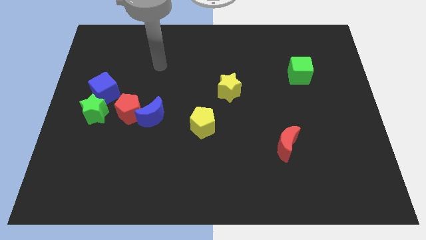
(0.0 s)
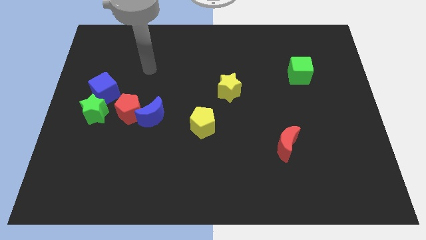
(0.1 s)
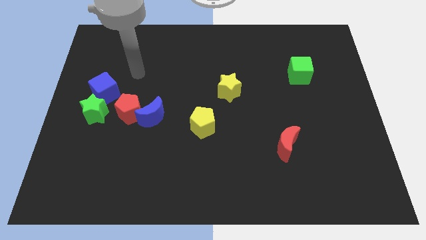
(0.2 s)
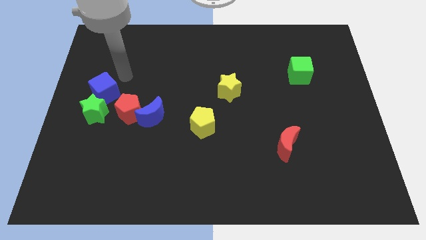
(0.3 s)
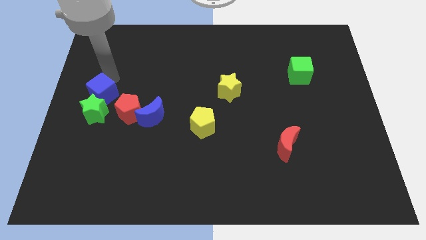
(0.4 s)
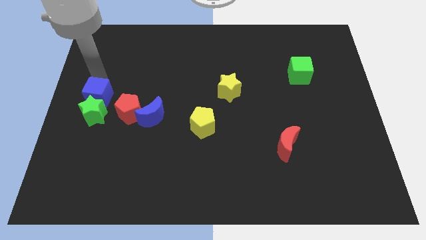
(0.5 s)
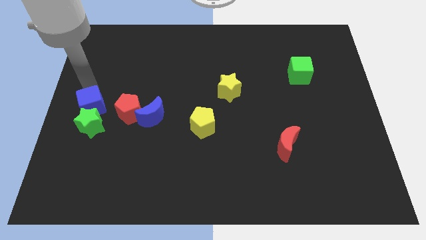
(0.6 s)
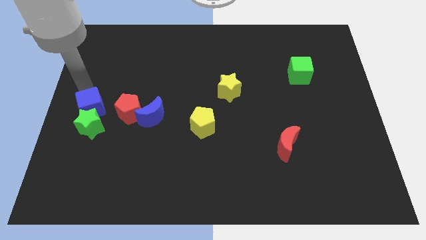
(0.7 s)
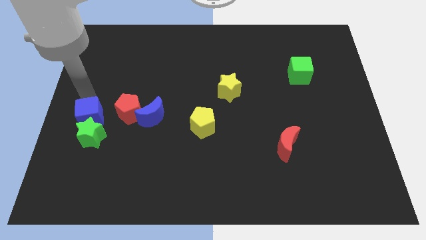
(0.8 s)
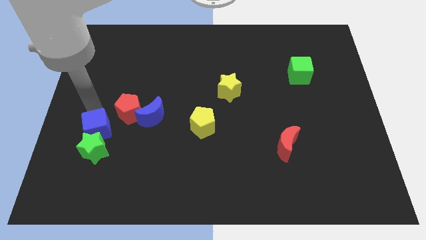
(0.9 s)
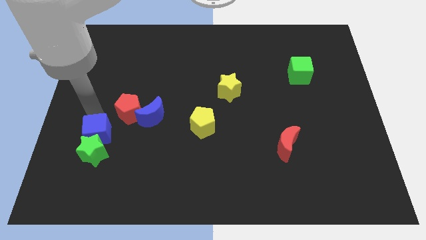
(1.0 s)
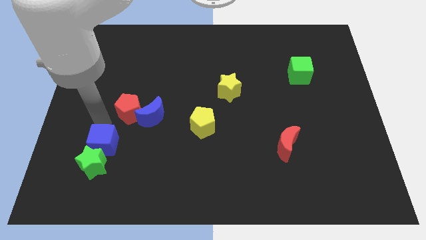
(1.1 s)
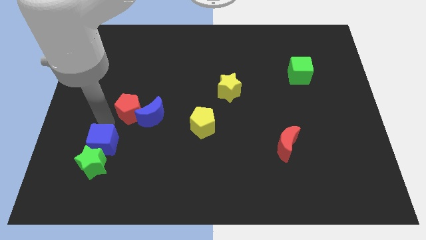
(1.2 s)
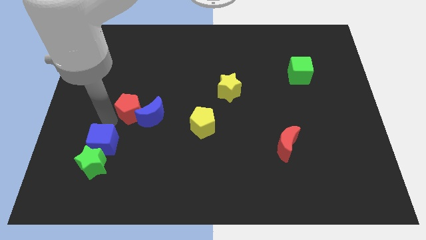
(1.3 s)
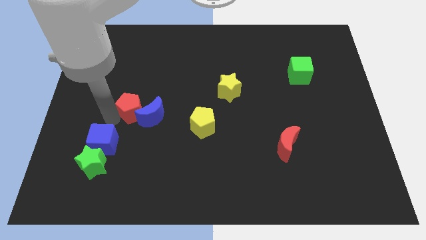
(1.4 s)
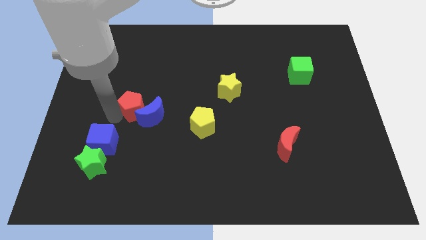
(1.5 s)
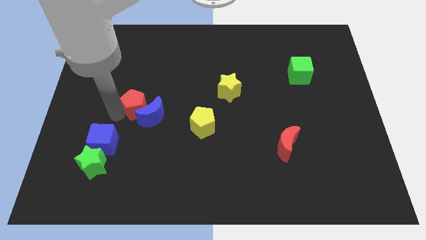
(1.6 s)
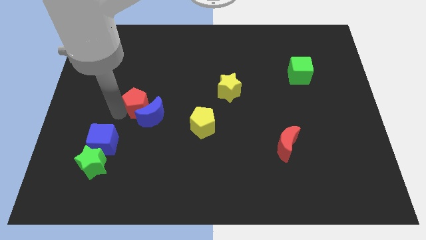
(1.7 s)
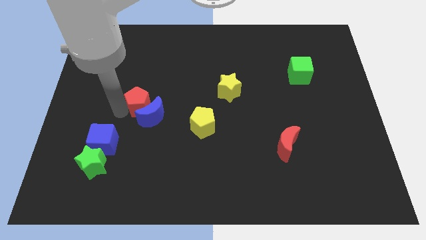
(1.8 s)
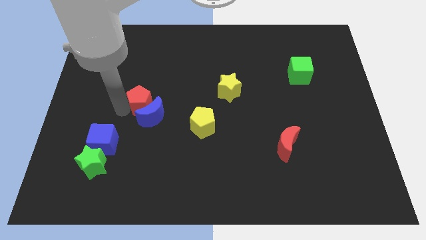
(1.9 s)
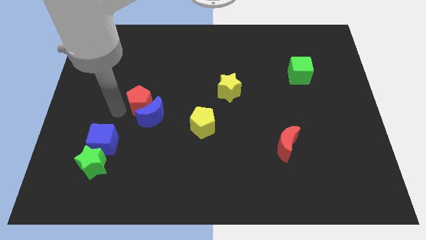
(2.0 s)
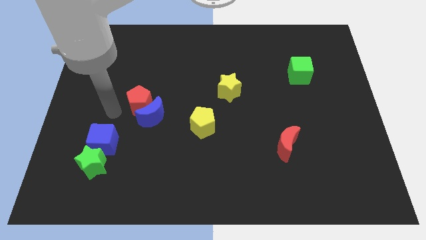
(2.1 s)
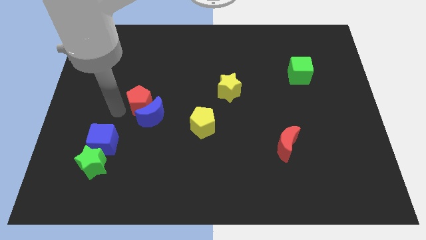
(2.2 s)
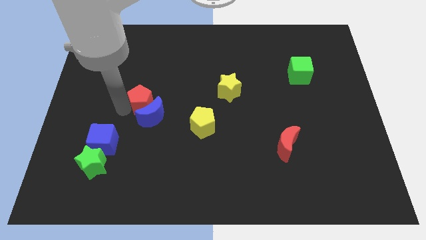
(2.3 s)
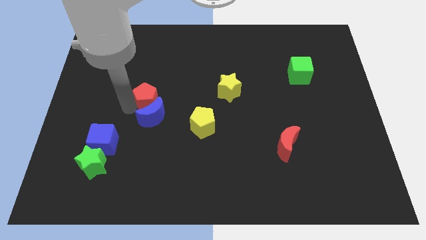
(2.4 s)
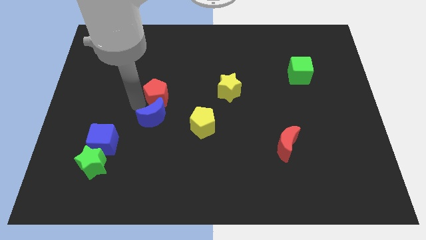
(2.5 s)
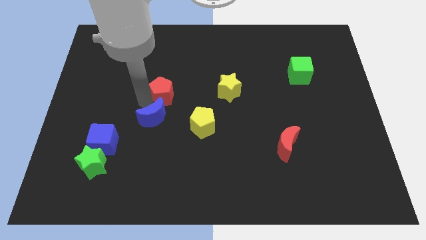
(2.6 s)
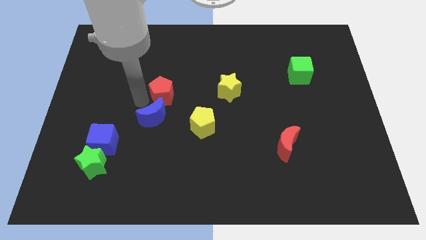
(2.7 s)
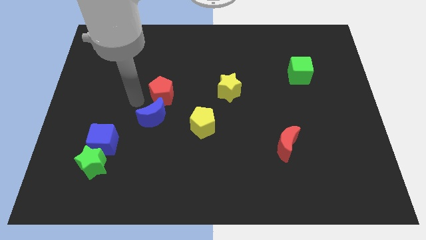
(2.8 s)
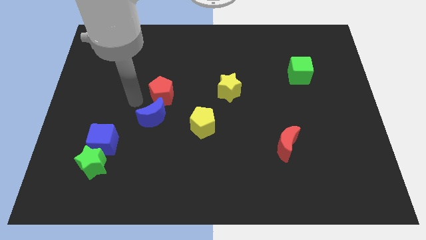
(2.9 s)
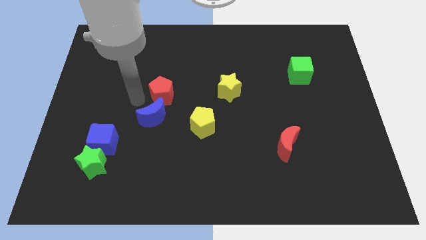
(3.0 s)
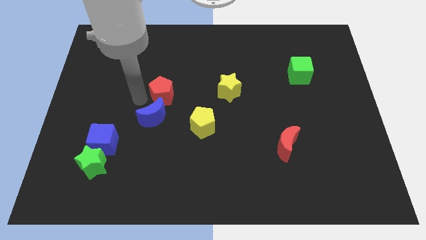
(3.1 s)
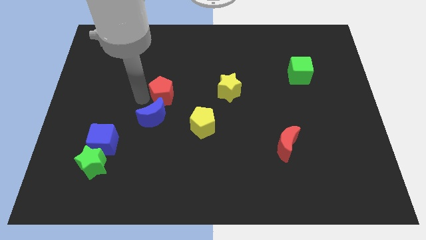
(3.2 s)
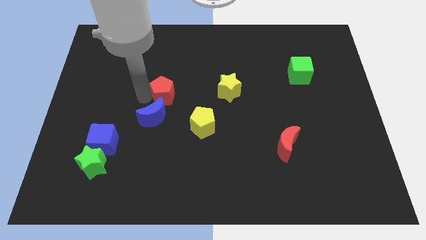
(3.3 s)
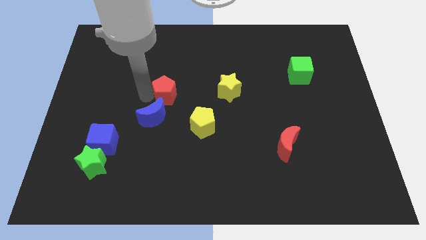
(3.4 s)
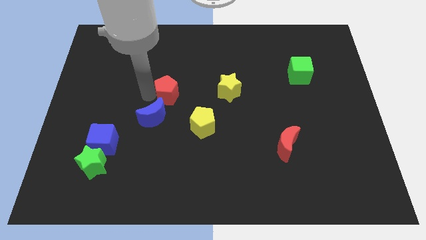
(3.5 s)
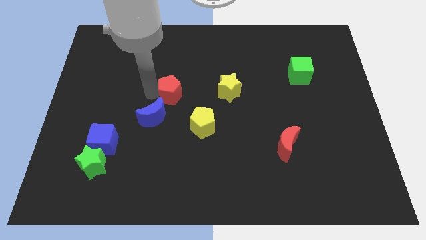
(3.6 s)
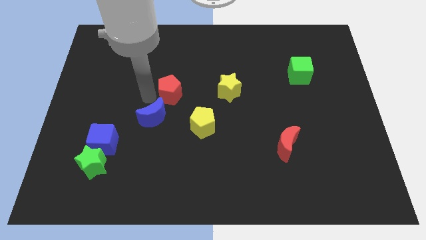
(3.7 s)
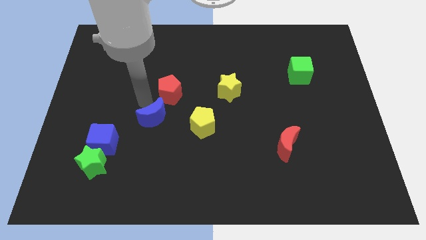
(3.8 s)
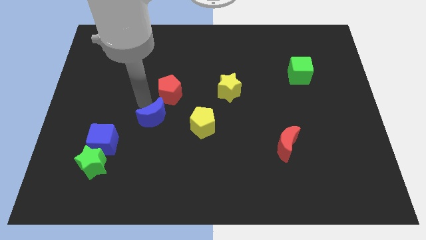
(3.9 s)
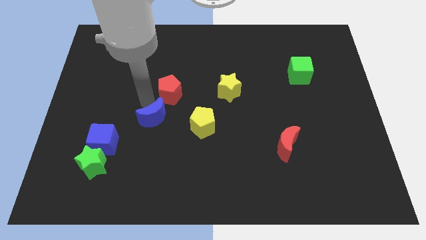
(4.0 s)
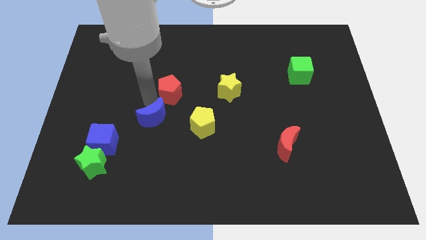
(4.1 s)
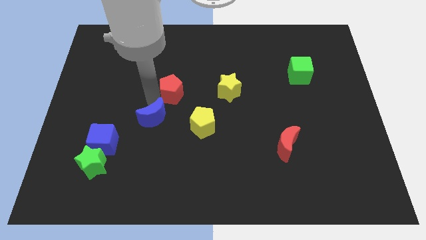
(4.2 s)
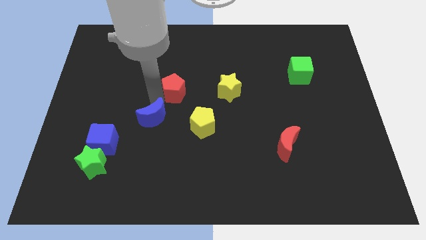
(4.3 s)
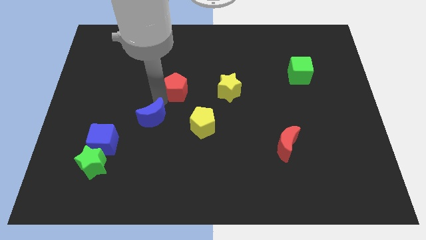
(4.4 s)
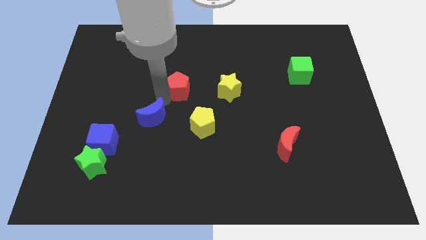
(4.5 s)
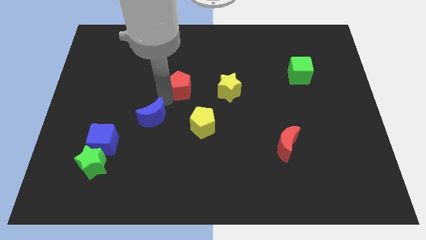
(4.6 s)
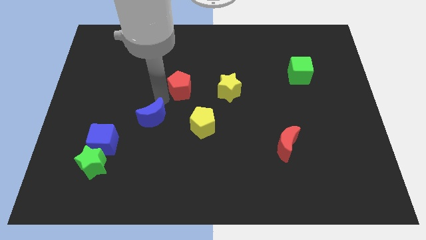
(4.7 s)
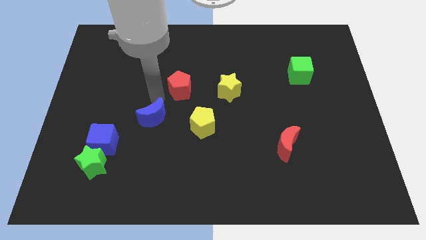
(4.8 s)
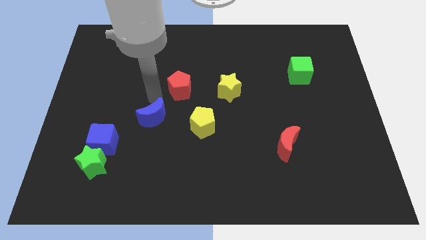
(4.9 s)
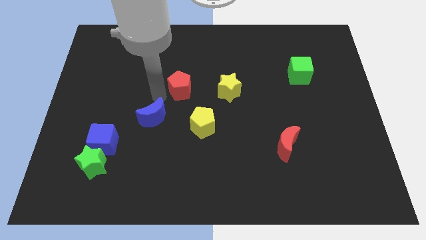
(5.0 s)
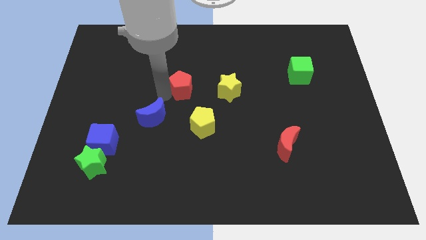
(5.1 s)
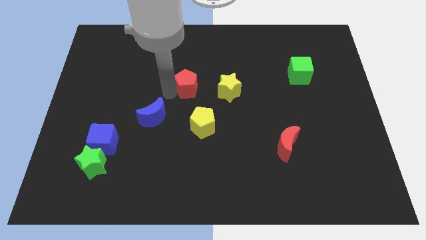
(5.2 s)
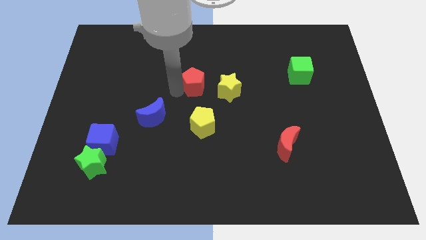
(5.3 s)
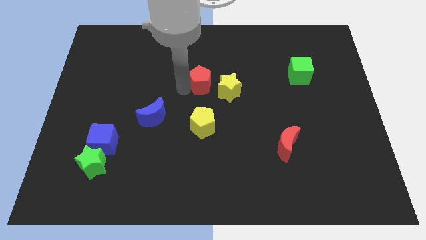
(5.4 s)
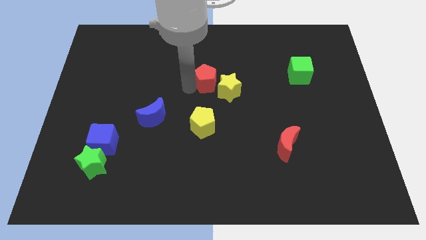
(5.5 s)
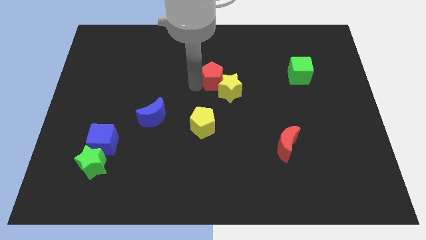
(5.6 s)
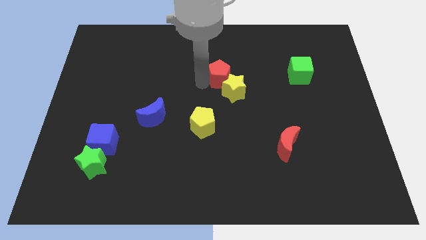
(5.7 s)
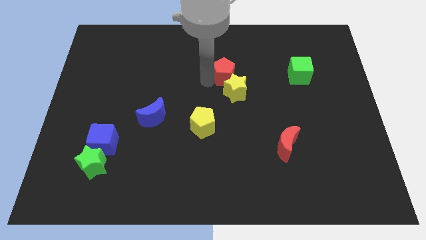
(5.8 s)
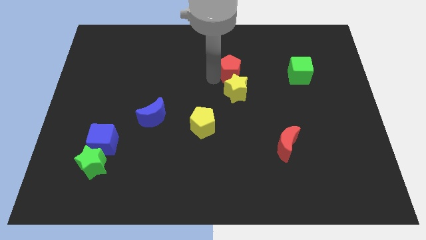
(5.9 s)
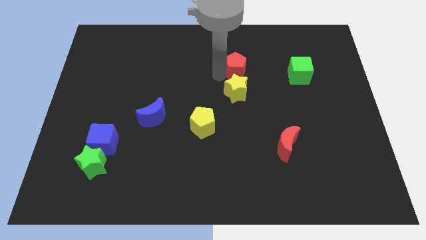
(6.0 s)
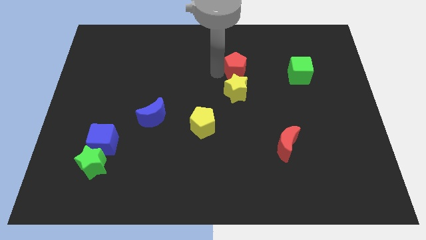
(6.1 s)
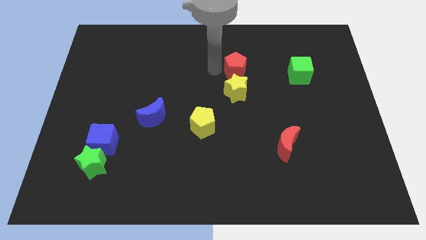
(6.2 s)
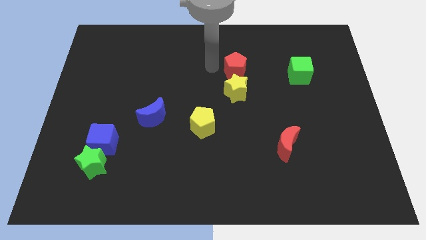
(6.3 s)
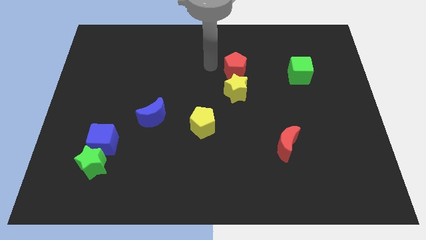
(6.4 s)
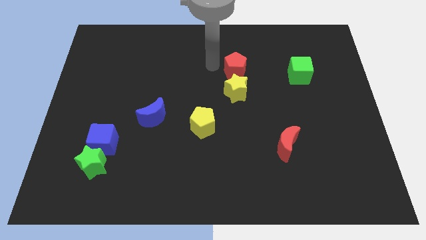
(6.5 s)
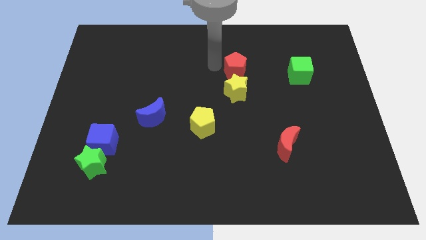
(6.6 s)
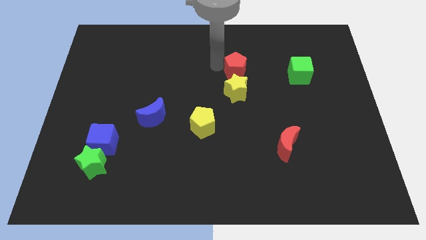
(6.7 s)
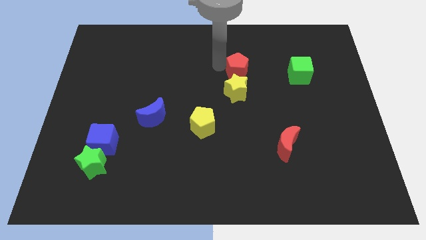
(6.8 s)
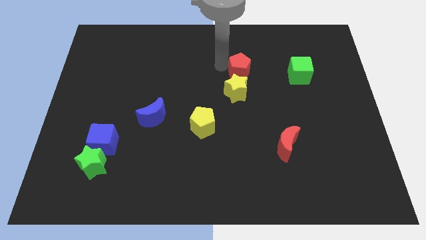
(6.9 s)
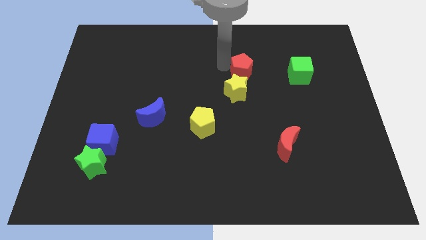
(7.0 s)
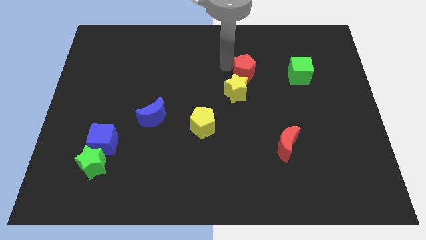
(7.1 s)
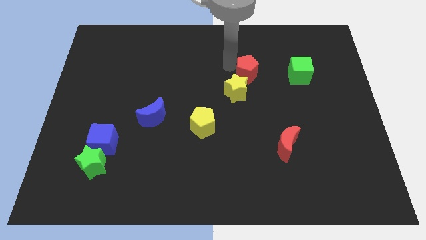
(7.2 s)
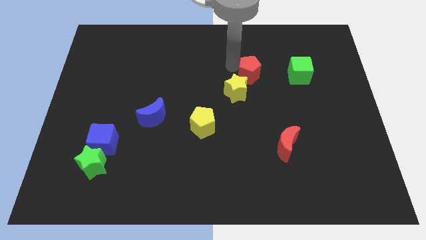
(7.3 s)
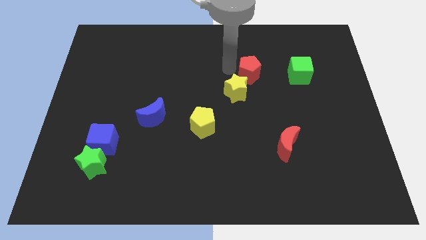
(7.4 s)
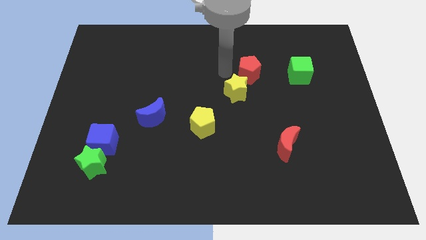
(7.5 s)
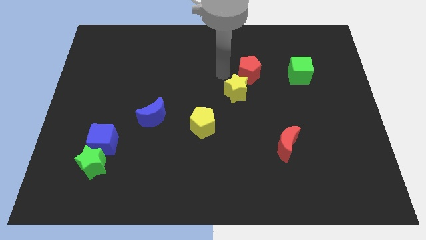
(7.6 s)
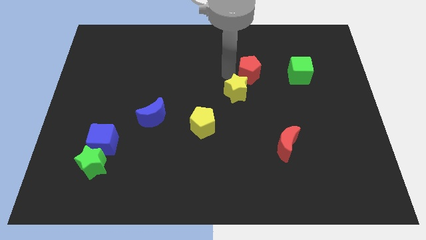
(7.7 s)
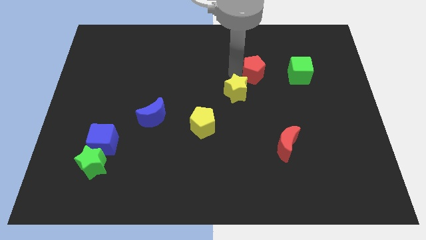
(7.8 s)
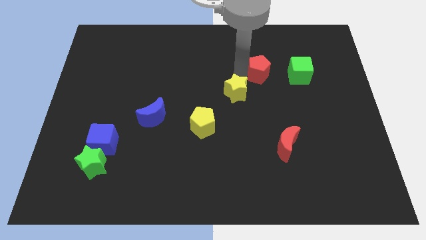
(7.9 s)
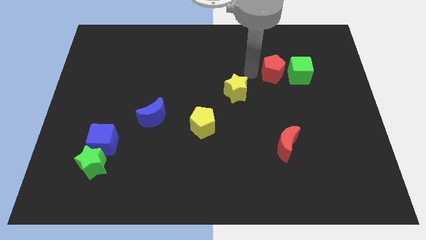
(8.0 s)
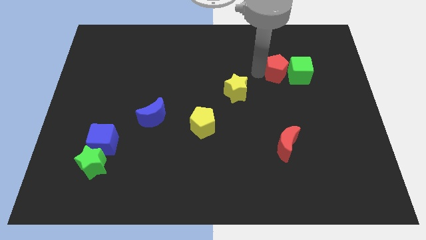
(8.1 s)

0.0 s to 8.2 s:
push the red pentagon to the green cube
